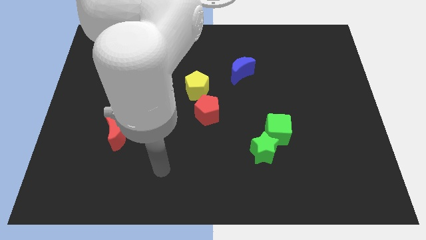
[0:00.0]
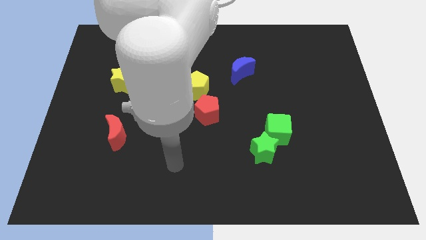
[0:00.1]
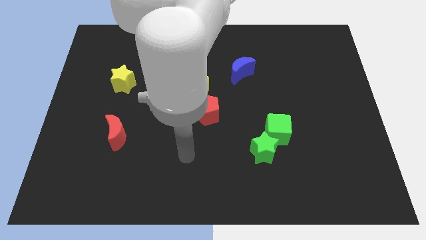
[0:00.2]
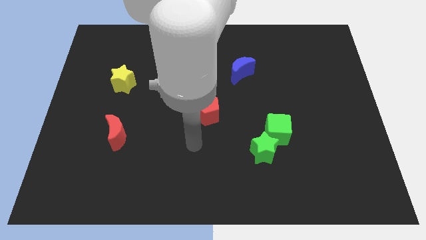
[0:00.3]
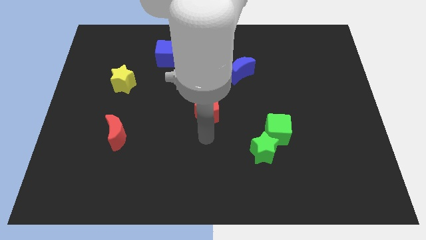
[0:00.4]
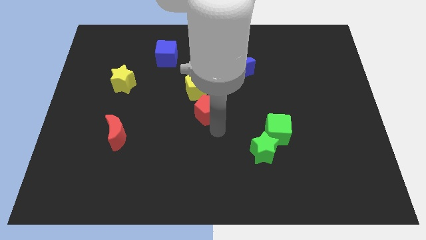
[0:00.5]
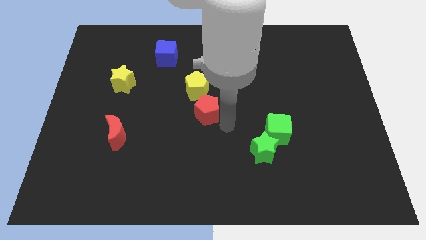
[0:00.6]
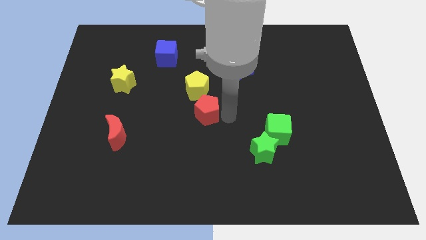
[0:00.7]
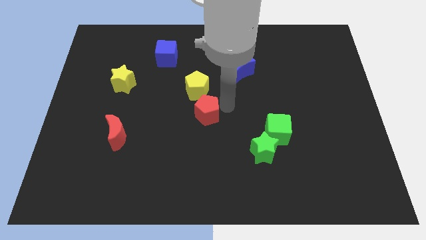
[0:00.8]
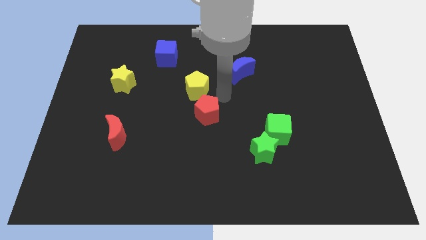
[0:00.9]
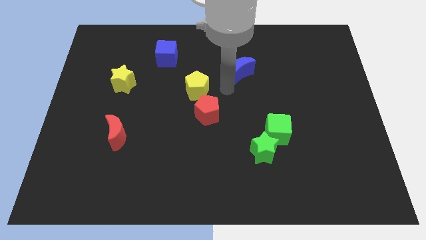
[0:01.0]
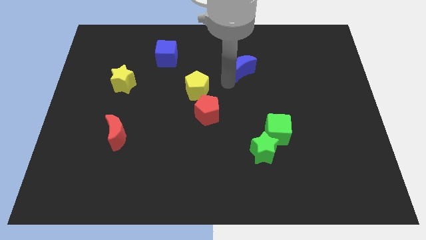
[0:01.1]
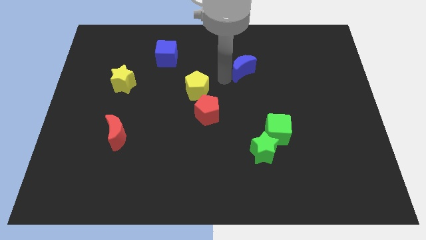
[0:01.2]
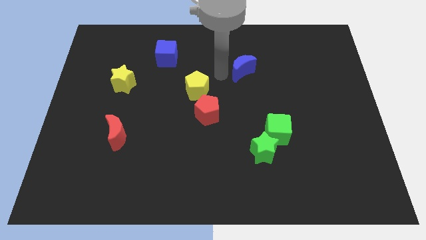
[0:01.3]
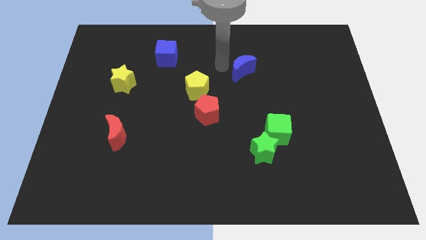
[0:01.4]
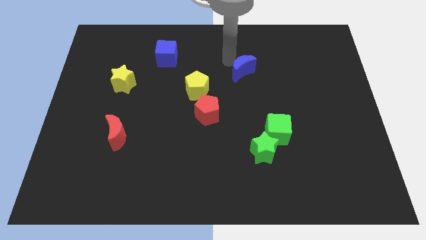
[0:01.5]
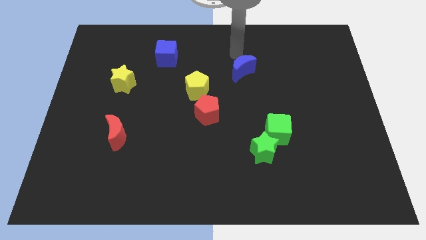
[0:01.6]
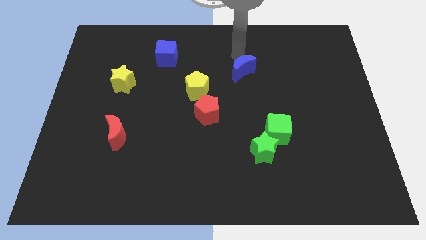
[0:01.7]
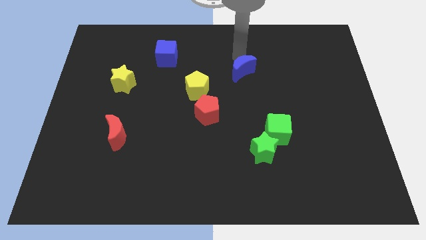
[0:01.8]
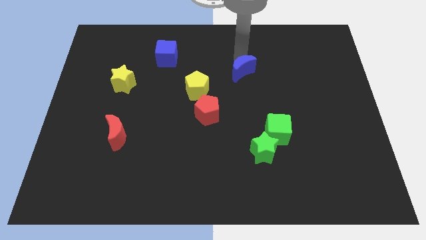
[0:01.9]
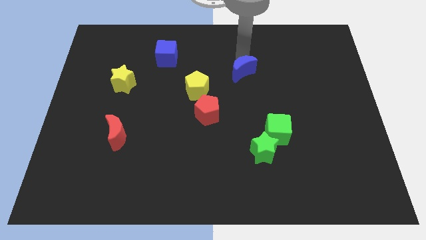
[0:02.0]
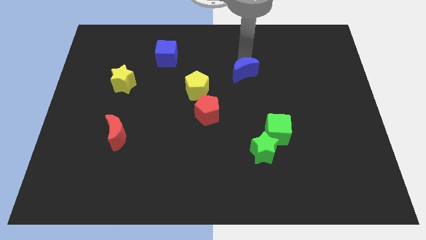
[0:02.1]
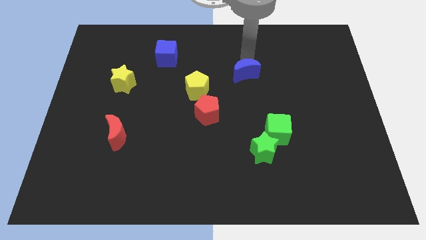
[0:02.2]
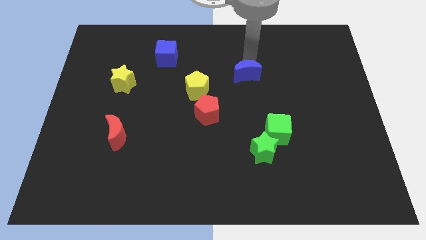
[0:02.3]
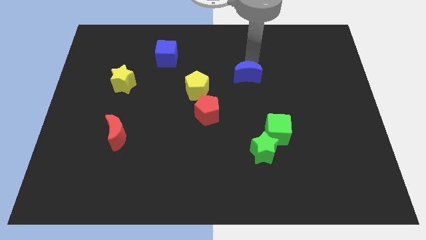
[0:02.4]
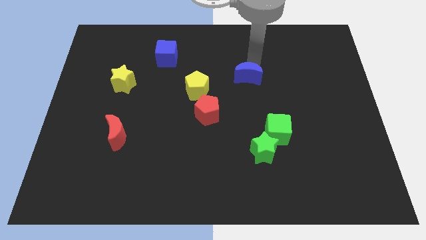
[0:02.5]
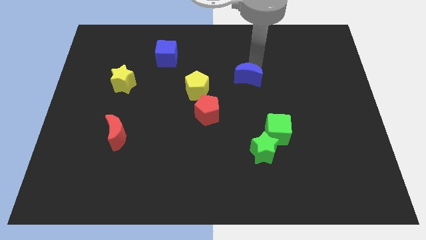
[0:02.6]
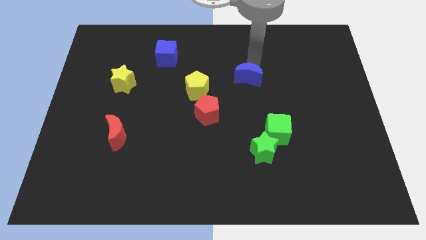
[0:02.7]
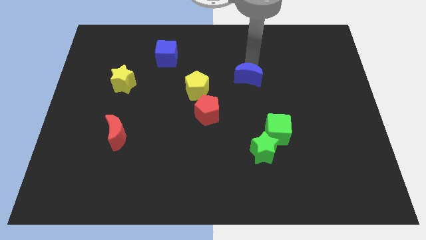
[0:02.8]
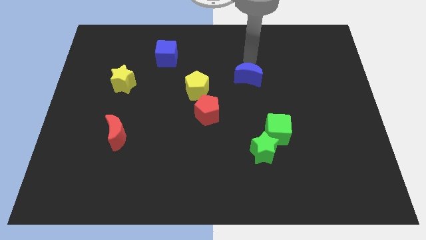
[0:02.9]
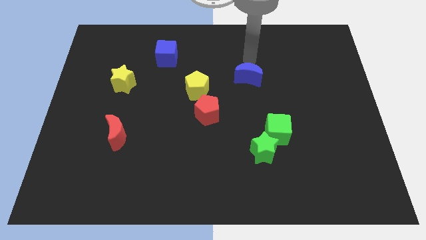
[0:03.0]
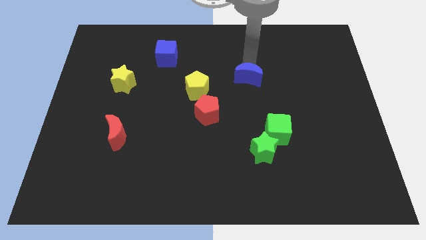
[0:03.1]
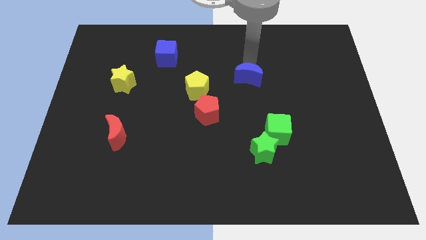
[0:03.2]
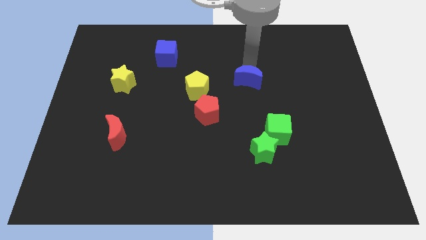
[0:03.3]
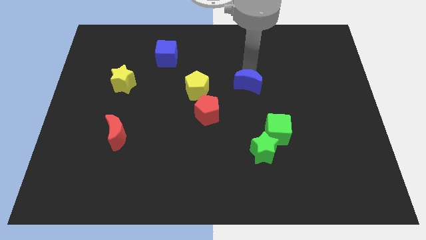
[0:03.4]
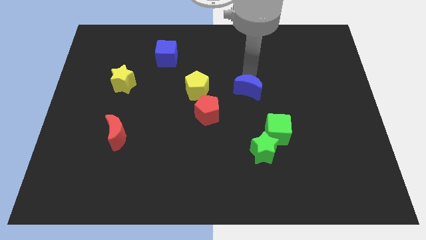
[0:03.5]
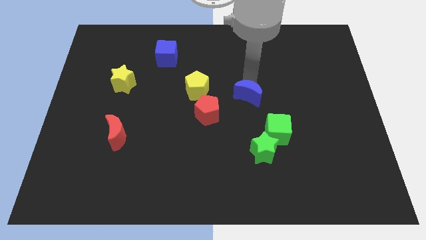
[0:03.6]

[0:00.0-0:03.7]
slightly slide the blue moon downwards

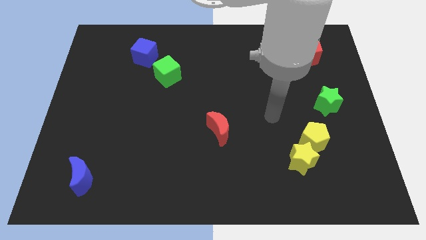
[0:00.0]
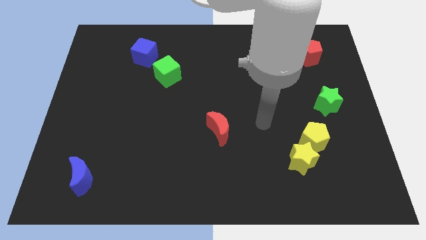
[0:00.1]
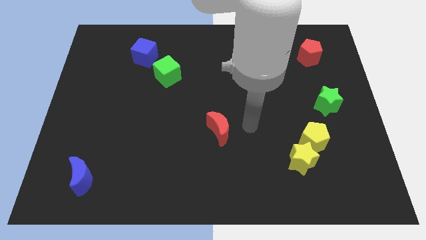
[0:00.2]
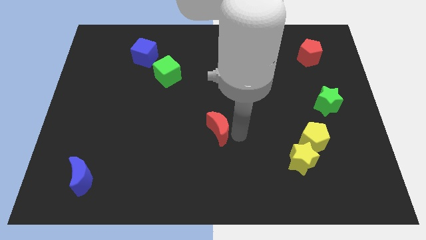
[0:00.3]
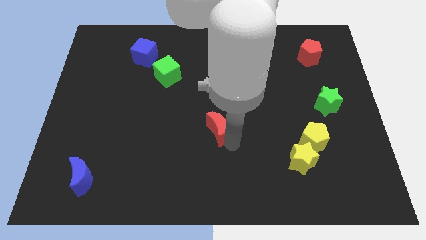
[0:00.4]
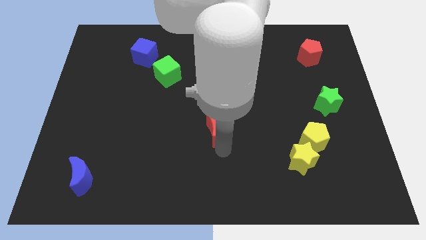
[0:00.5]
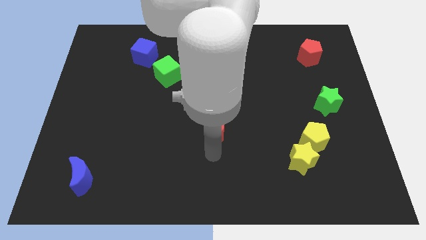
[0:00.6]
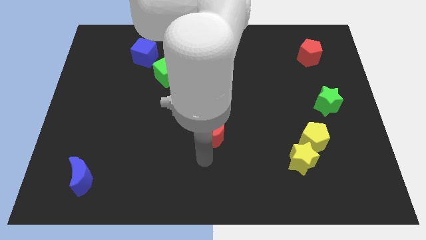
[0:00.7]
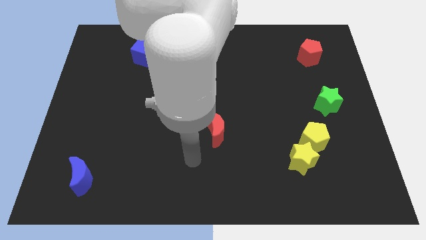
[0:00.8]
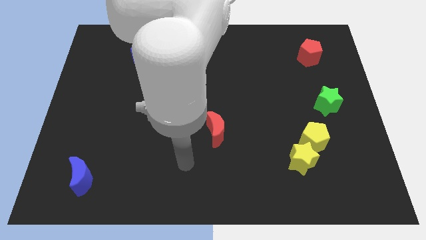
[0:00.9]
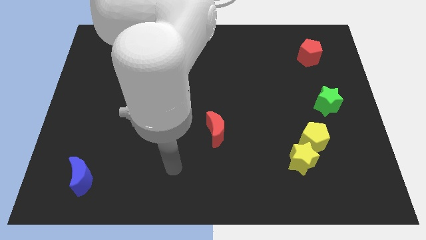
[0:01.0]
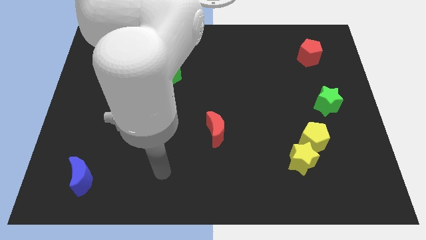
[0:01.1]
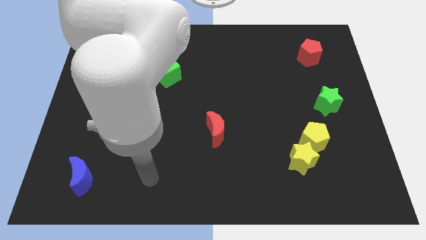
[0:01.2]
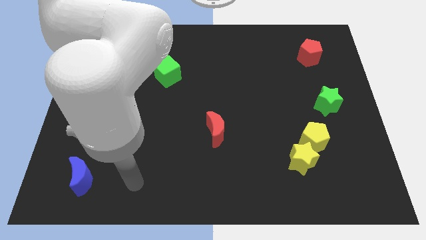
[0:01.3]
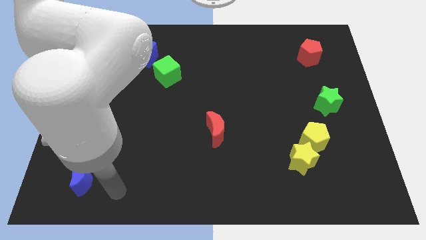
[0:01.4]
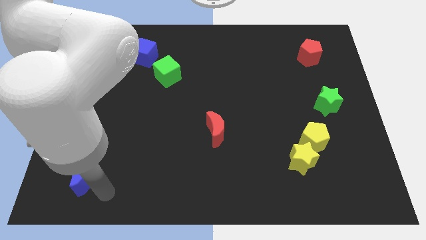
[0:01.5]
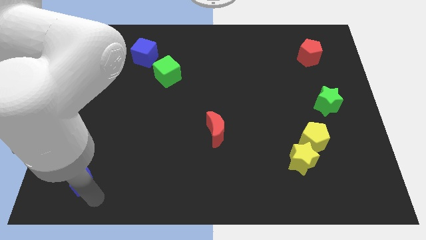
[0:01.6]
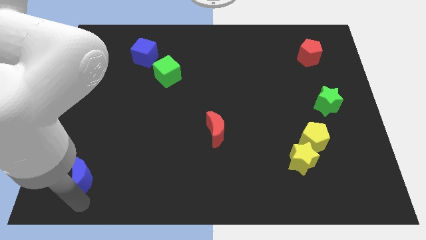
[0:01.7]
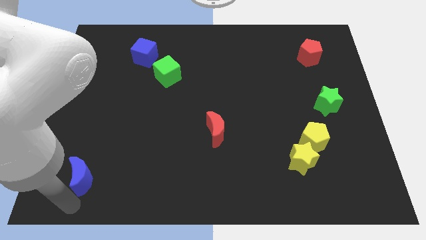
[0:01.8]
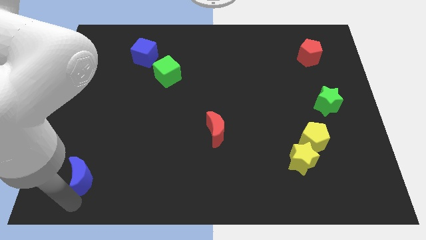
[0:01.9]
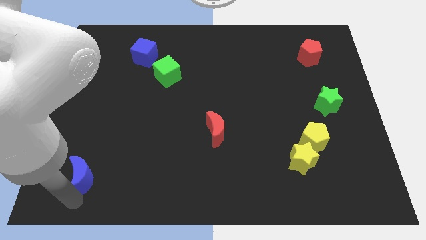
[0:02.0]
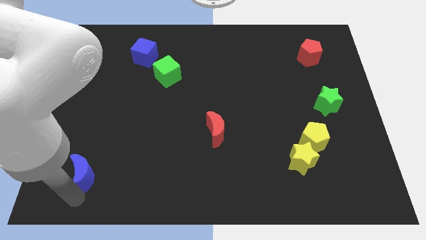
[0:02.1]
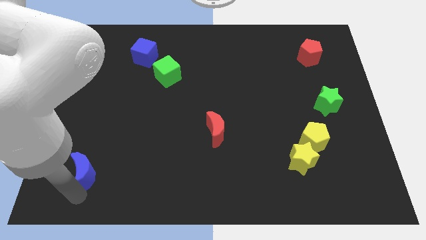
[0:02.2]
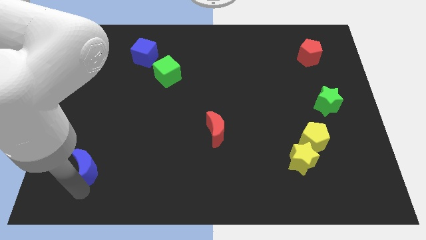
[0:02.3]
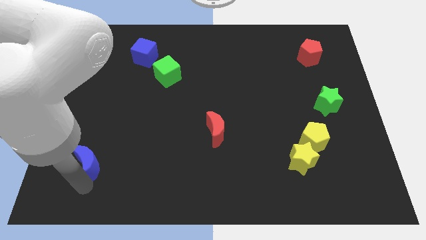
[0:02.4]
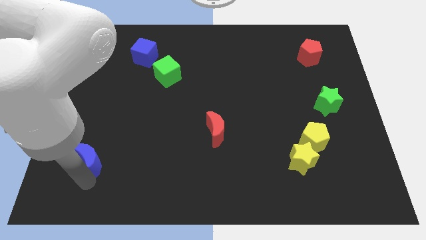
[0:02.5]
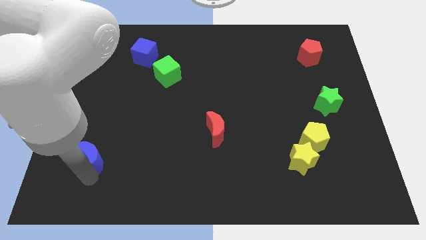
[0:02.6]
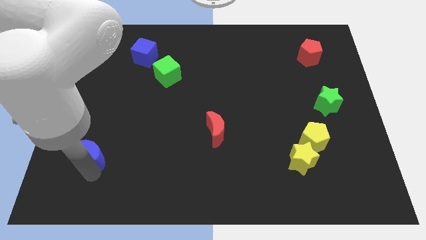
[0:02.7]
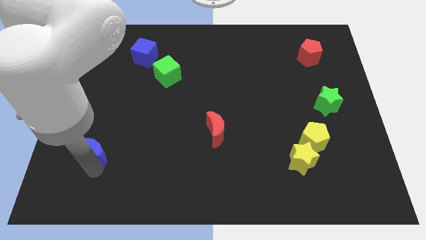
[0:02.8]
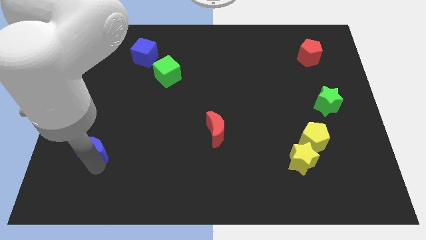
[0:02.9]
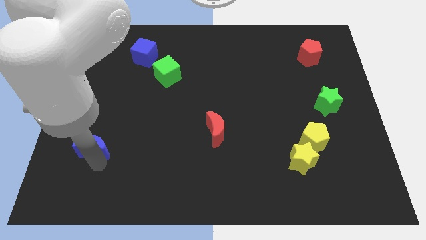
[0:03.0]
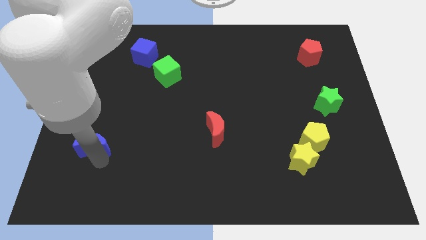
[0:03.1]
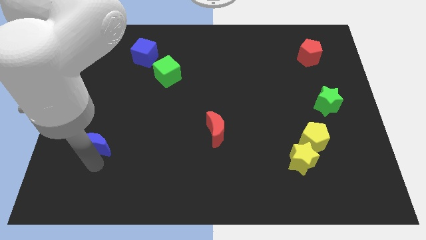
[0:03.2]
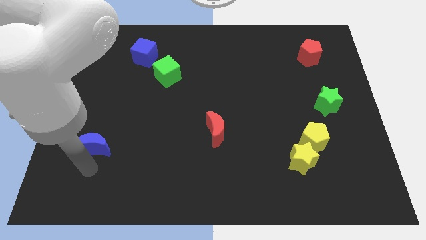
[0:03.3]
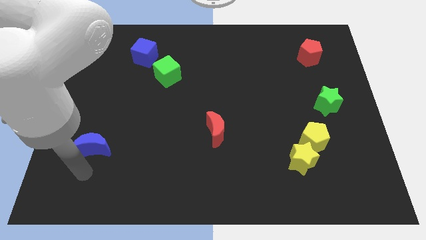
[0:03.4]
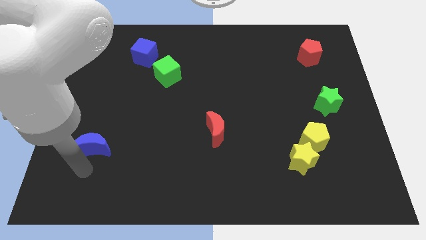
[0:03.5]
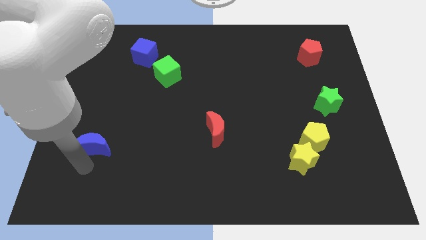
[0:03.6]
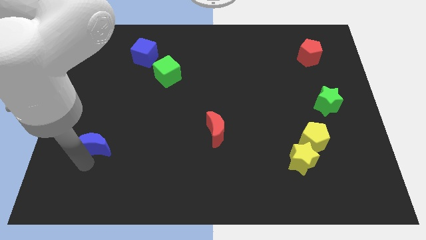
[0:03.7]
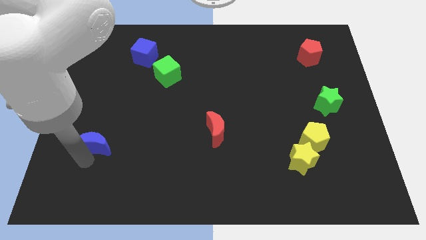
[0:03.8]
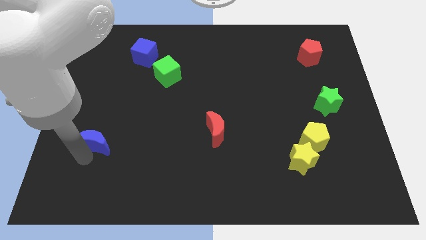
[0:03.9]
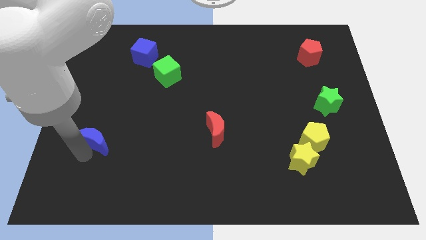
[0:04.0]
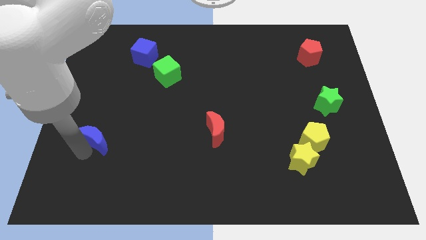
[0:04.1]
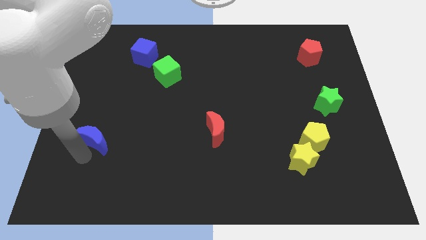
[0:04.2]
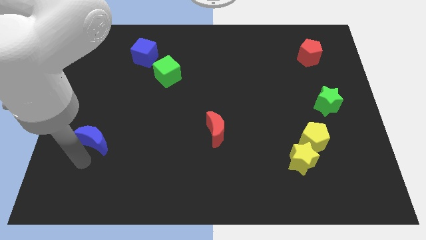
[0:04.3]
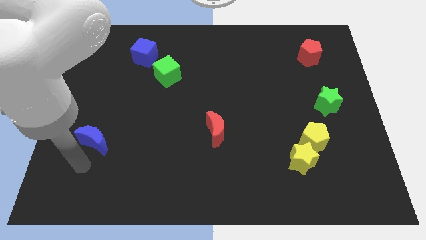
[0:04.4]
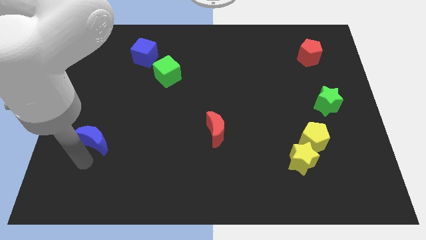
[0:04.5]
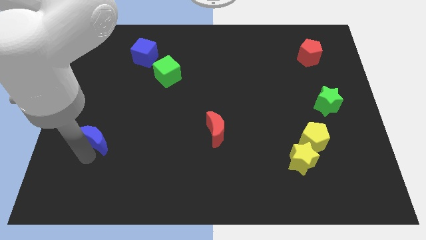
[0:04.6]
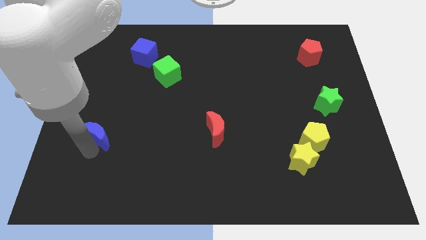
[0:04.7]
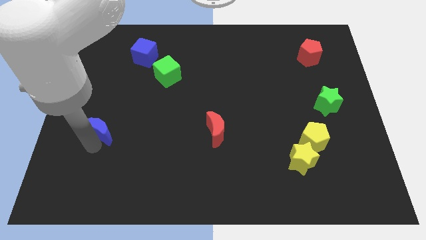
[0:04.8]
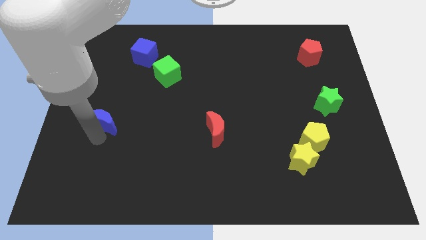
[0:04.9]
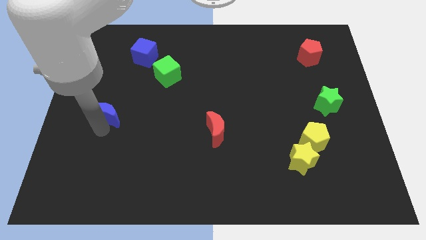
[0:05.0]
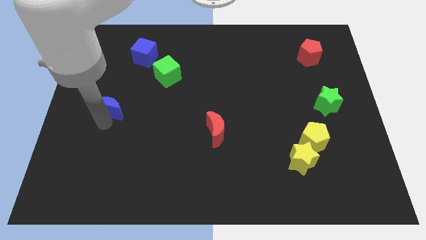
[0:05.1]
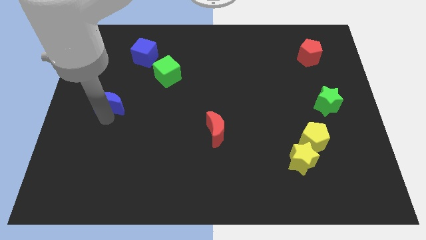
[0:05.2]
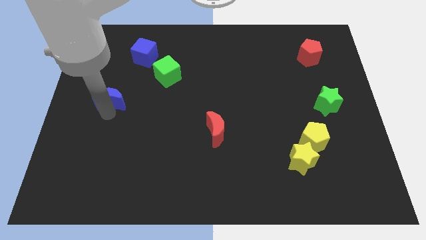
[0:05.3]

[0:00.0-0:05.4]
slide the blue moon up
